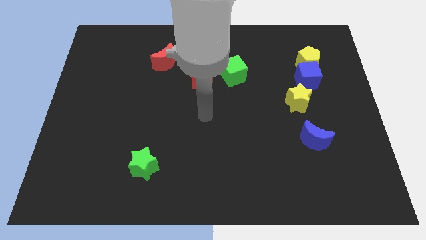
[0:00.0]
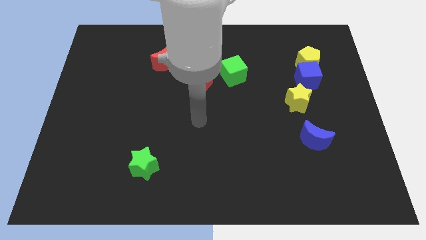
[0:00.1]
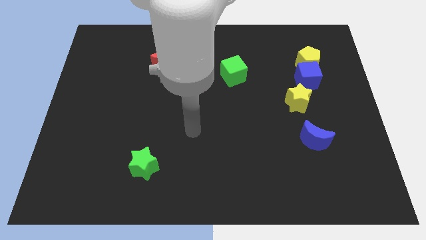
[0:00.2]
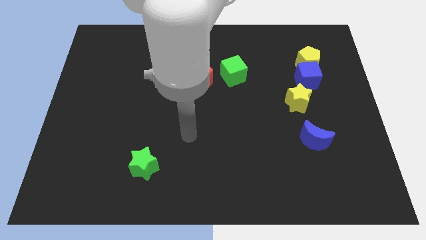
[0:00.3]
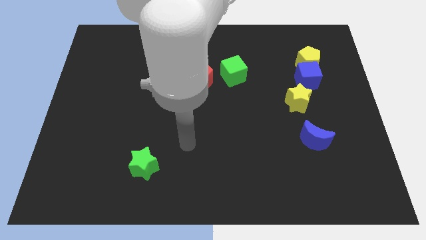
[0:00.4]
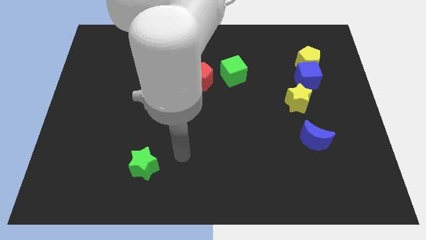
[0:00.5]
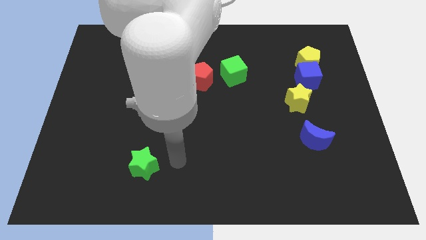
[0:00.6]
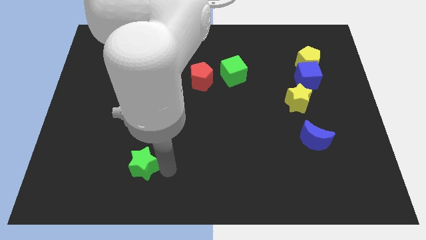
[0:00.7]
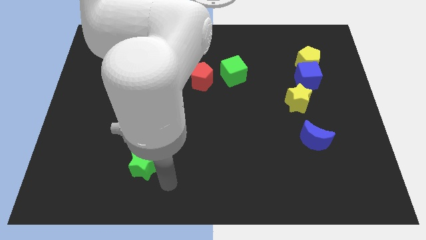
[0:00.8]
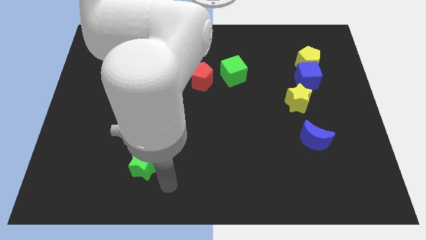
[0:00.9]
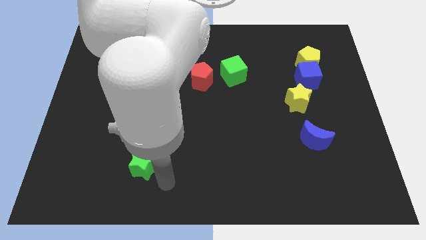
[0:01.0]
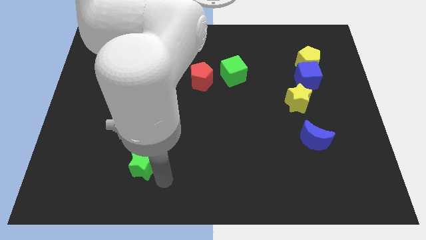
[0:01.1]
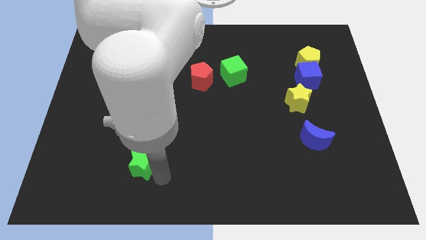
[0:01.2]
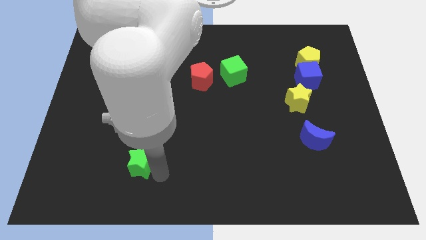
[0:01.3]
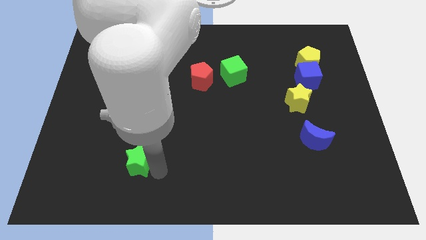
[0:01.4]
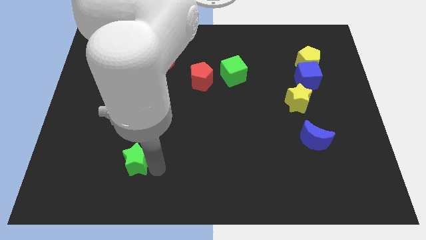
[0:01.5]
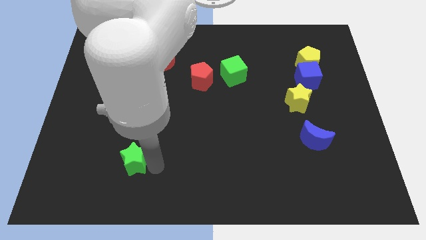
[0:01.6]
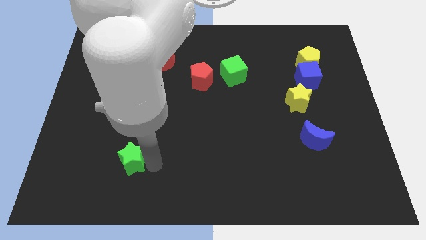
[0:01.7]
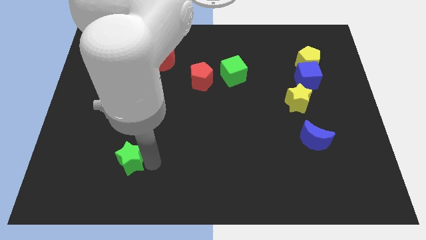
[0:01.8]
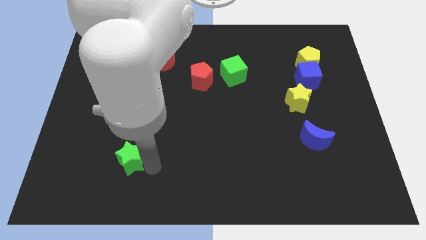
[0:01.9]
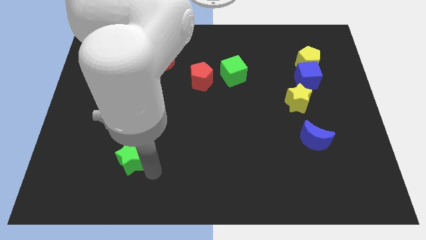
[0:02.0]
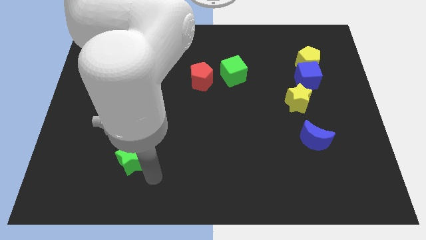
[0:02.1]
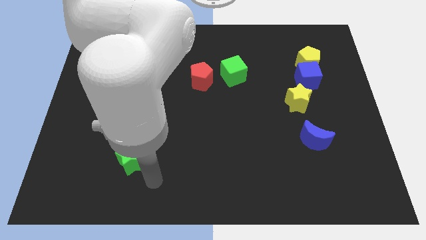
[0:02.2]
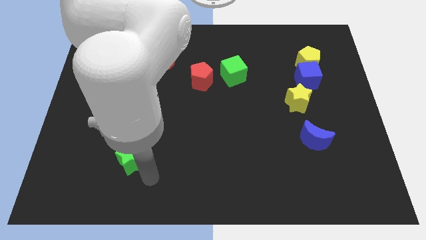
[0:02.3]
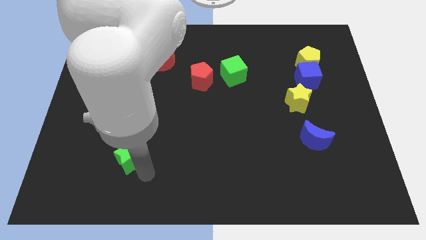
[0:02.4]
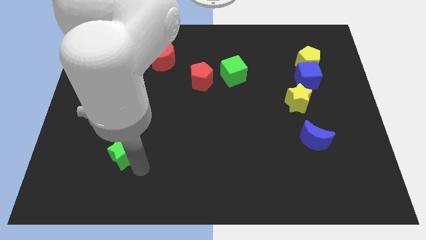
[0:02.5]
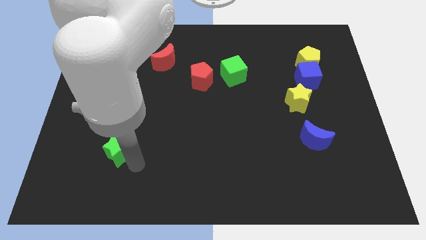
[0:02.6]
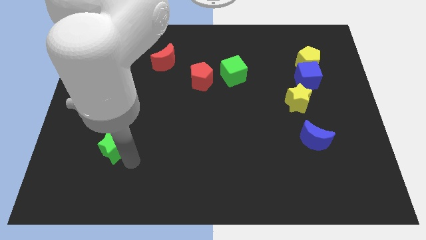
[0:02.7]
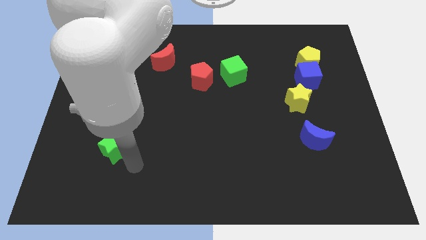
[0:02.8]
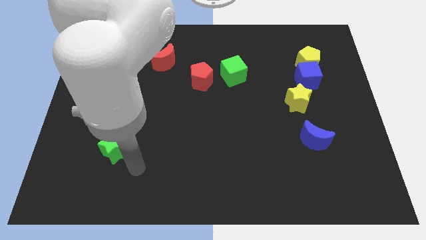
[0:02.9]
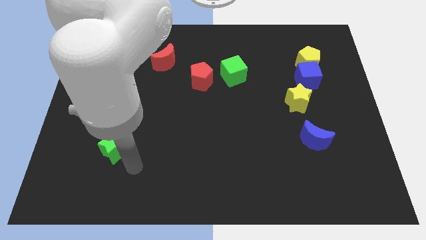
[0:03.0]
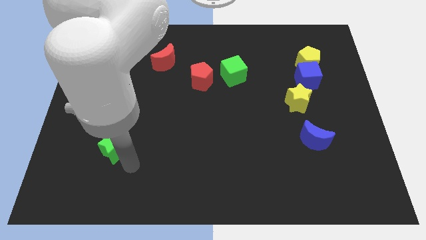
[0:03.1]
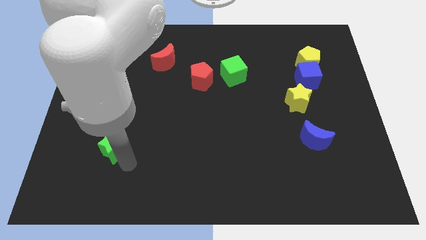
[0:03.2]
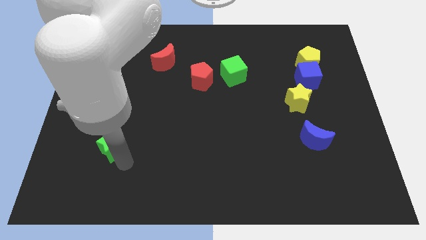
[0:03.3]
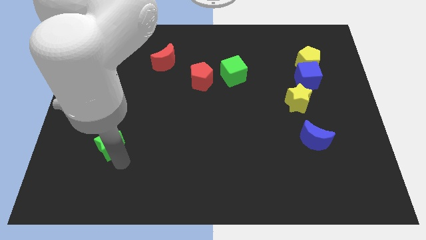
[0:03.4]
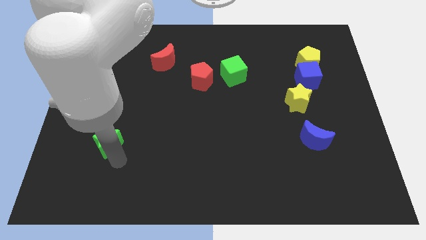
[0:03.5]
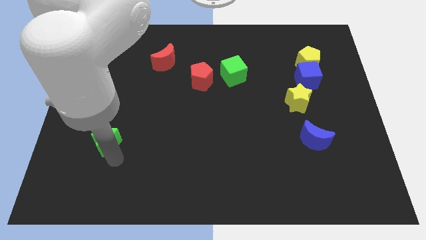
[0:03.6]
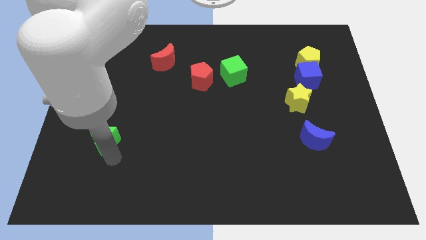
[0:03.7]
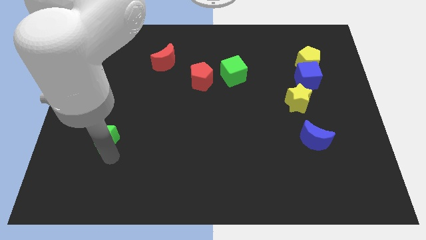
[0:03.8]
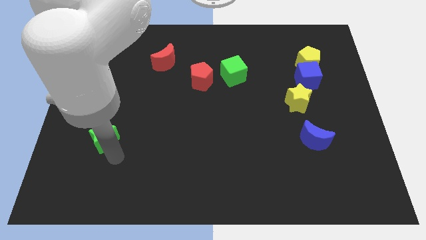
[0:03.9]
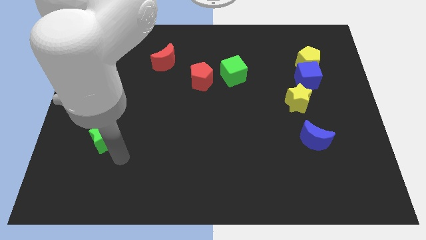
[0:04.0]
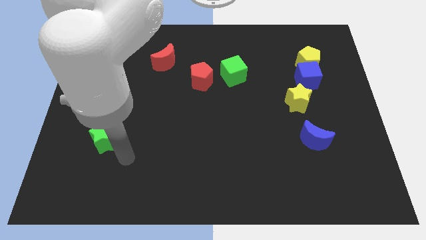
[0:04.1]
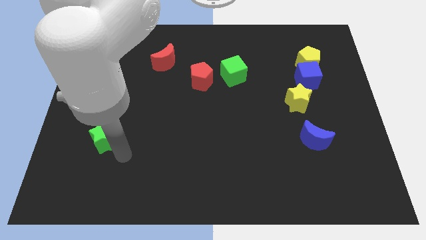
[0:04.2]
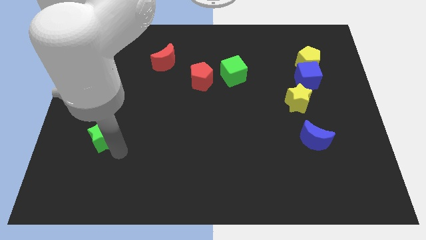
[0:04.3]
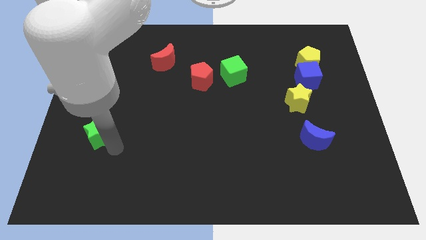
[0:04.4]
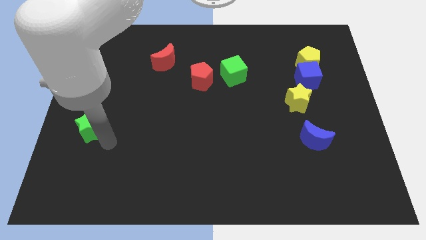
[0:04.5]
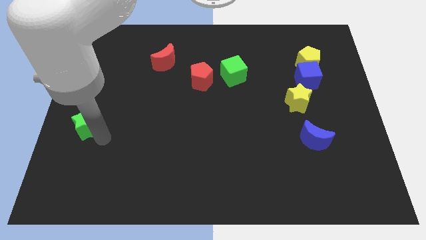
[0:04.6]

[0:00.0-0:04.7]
put the green star to the center left

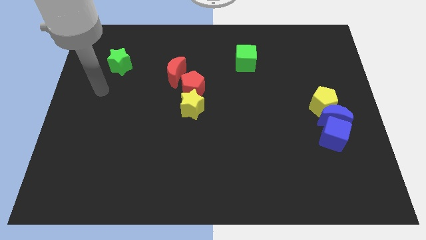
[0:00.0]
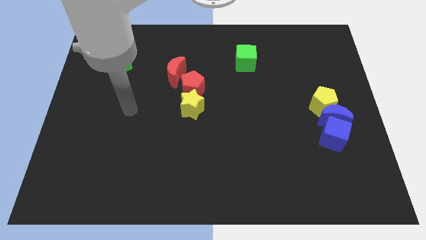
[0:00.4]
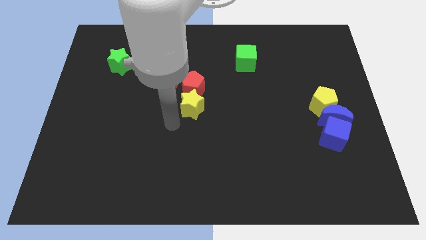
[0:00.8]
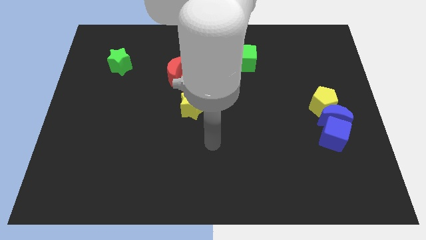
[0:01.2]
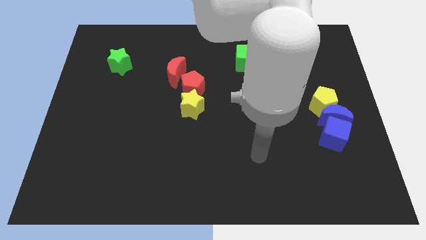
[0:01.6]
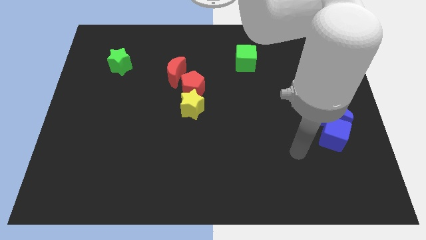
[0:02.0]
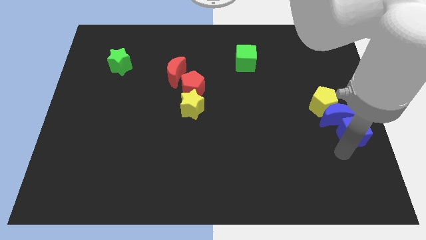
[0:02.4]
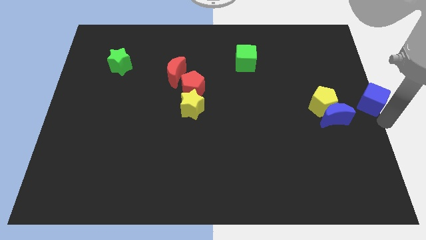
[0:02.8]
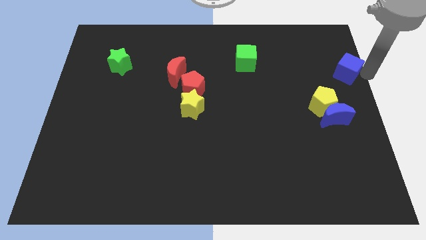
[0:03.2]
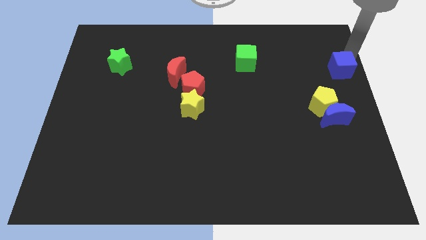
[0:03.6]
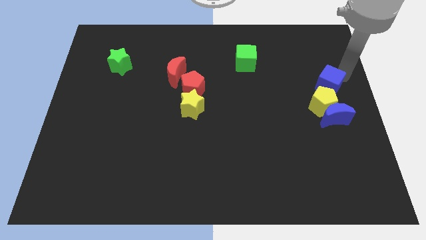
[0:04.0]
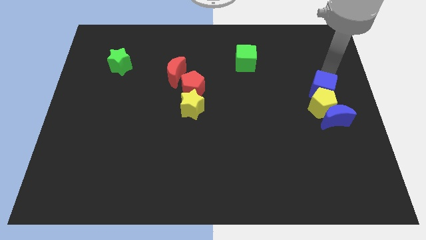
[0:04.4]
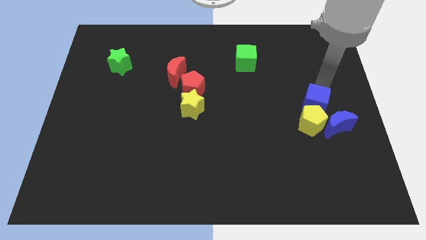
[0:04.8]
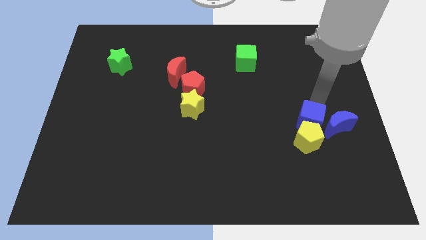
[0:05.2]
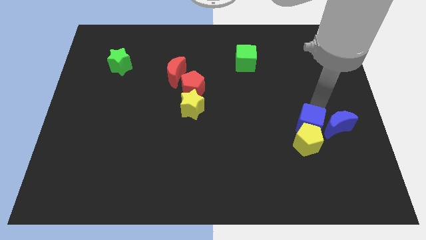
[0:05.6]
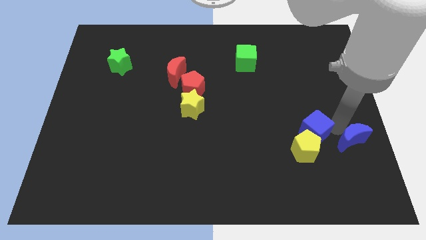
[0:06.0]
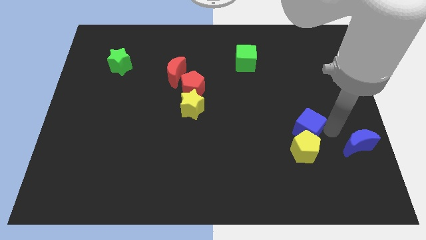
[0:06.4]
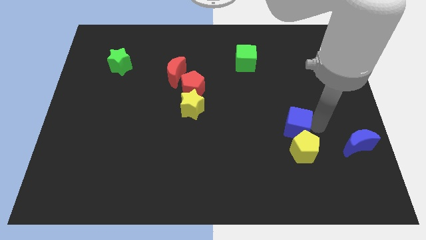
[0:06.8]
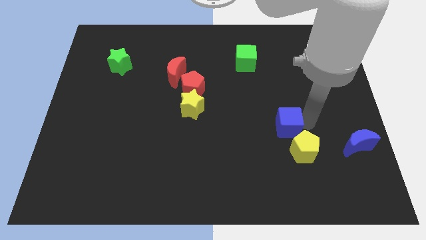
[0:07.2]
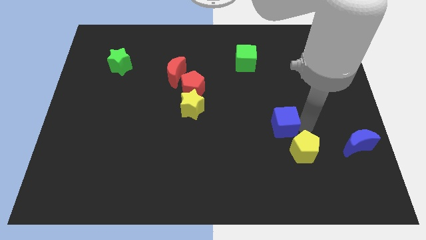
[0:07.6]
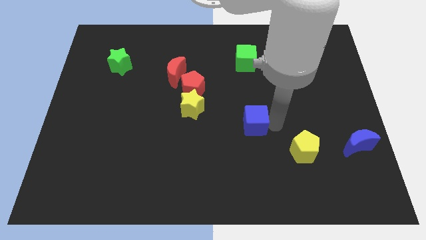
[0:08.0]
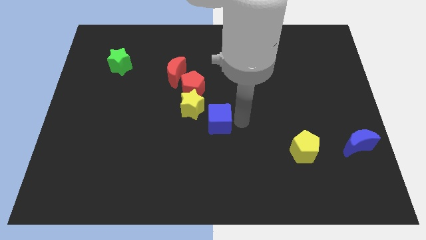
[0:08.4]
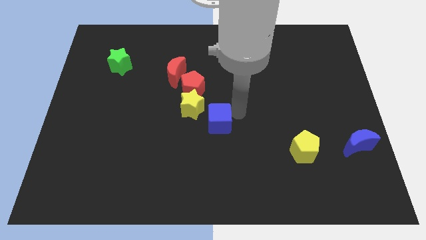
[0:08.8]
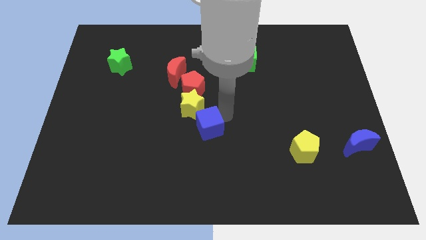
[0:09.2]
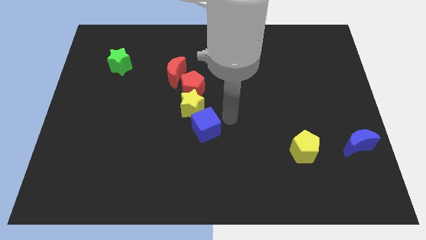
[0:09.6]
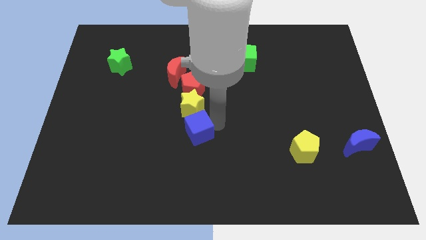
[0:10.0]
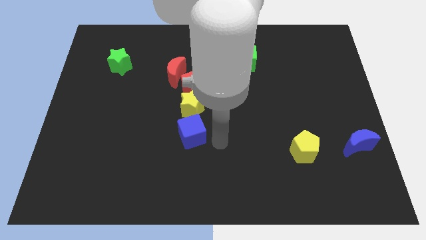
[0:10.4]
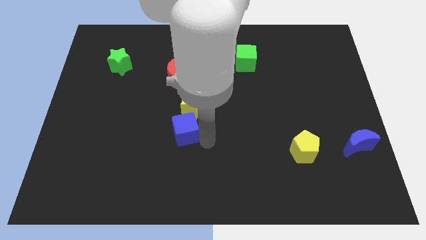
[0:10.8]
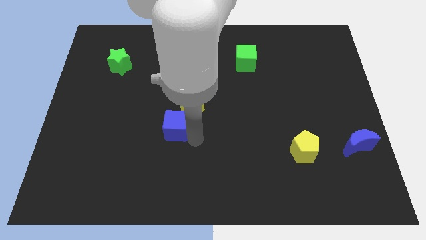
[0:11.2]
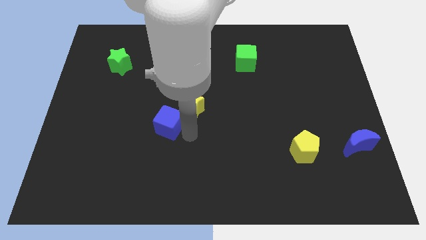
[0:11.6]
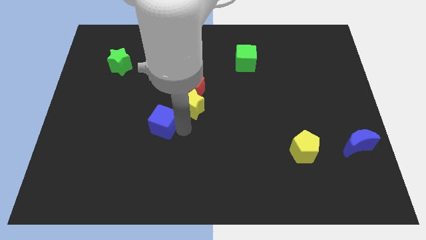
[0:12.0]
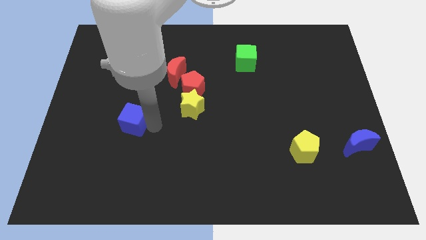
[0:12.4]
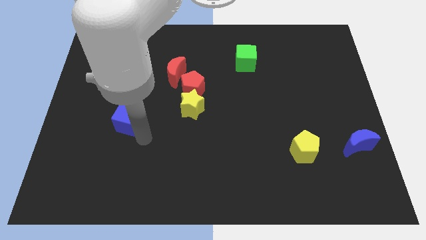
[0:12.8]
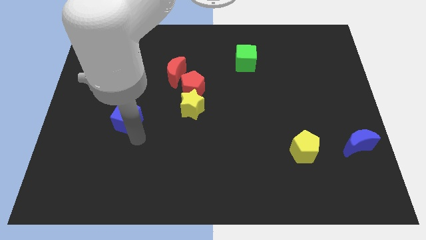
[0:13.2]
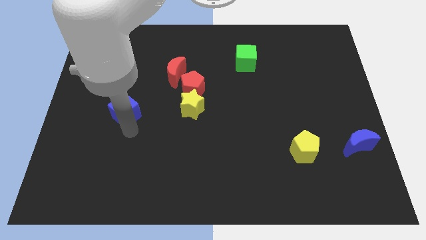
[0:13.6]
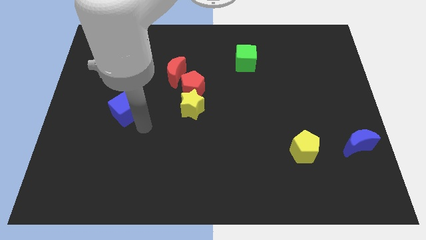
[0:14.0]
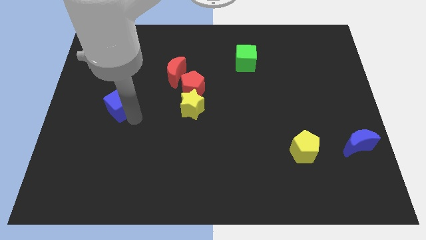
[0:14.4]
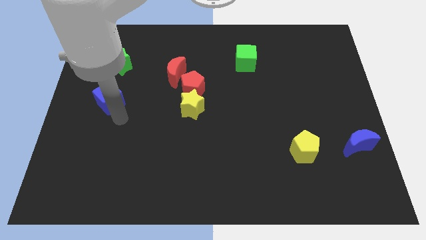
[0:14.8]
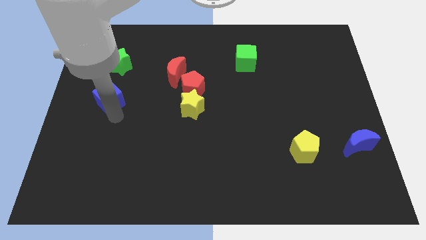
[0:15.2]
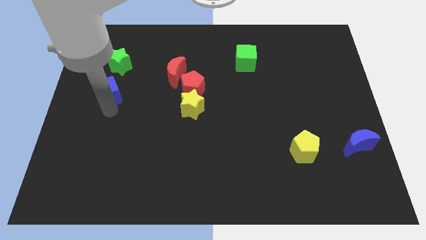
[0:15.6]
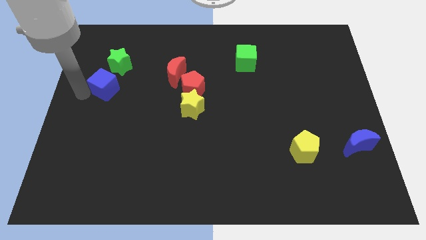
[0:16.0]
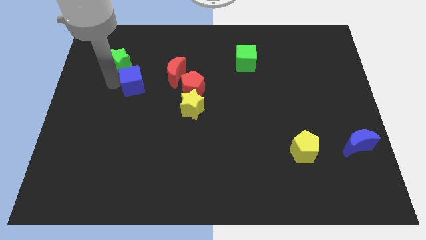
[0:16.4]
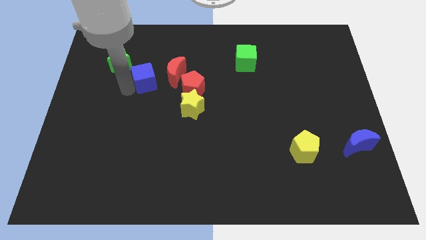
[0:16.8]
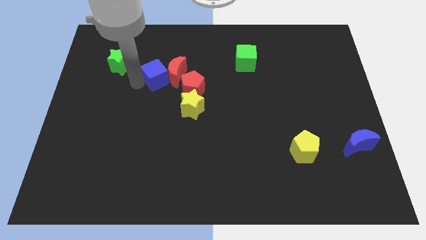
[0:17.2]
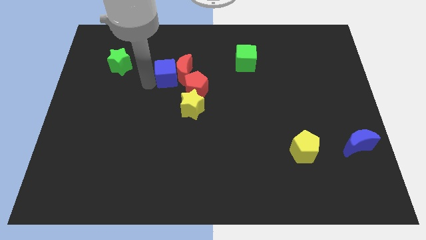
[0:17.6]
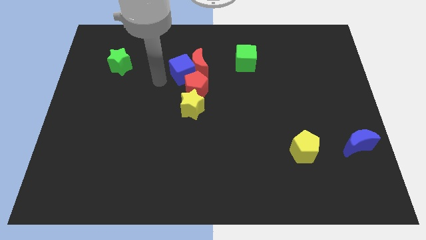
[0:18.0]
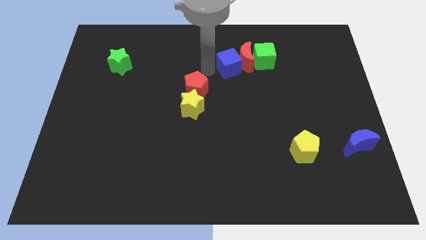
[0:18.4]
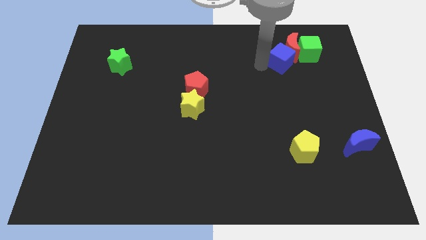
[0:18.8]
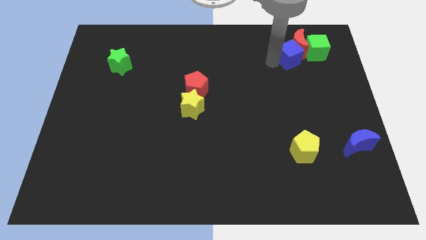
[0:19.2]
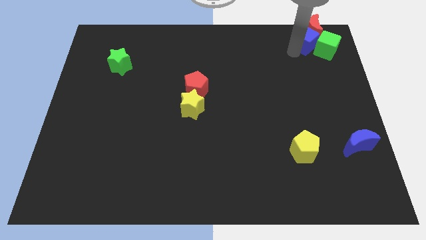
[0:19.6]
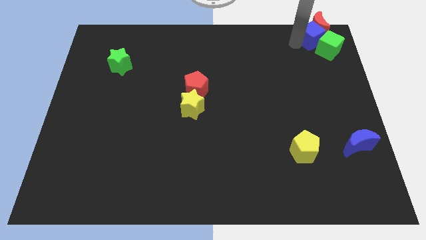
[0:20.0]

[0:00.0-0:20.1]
push the blue cube to the top right
